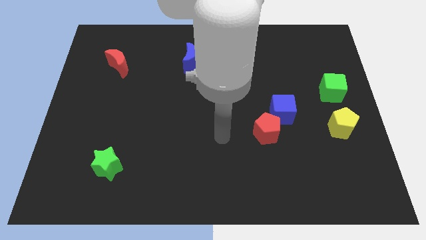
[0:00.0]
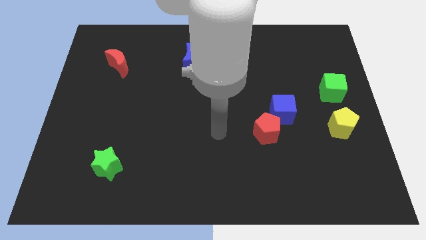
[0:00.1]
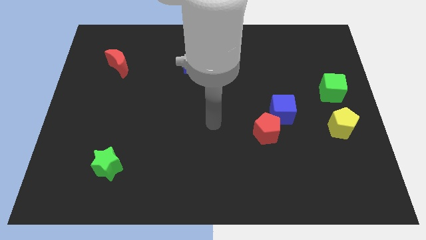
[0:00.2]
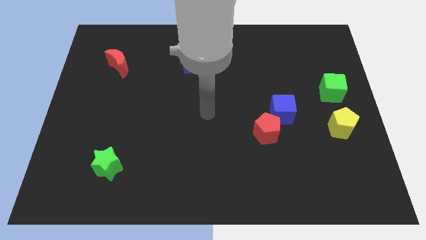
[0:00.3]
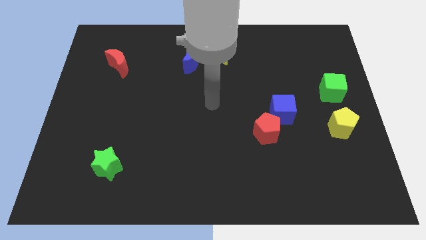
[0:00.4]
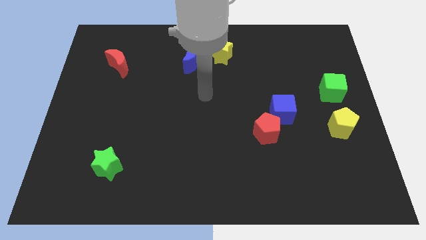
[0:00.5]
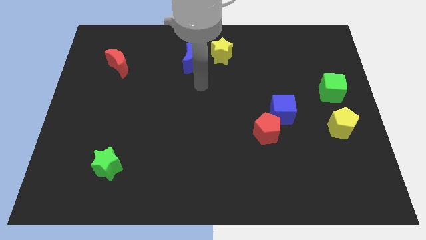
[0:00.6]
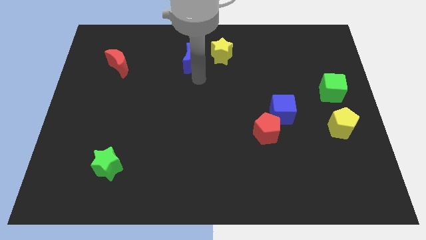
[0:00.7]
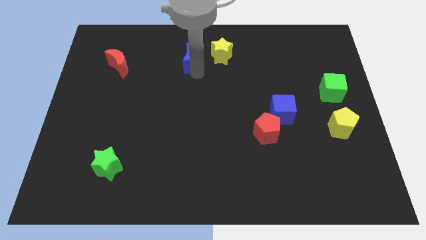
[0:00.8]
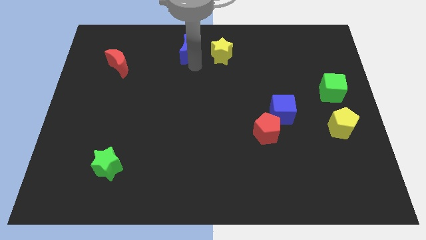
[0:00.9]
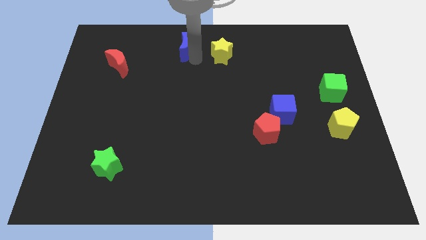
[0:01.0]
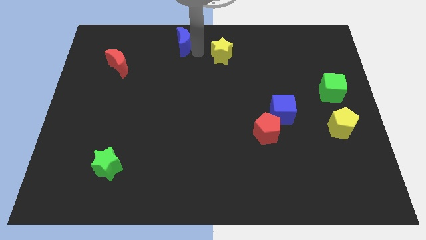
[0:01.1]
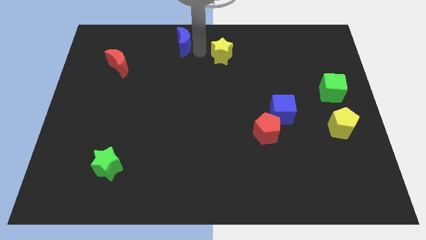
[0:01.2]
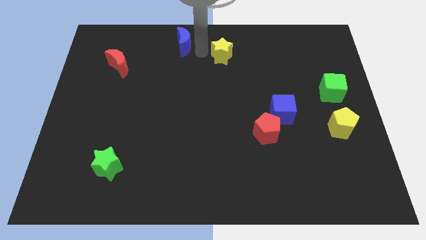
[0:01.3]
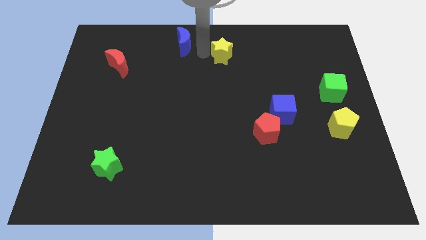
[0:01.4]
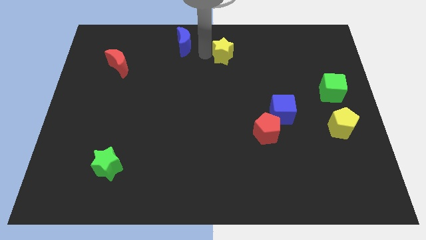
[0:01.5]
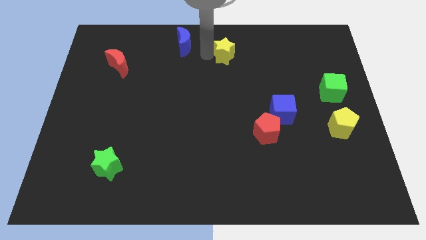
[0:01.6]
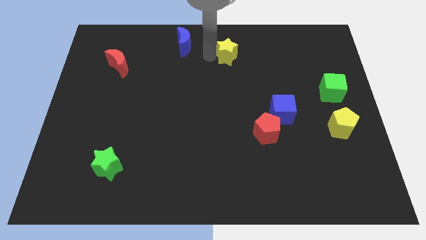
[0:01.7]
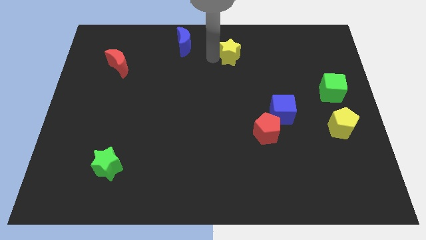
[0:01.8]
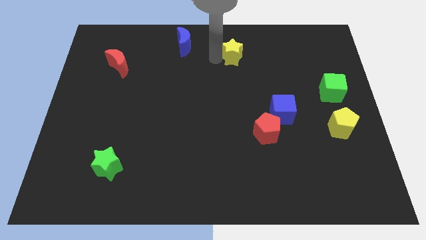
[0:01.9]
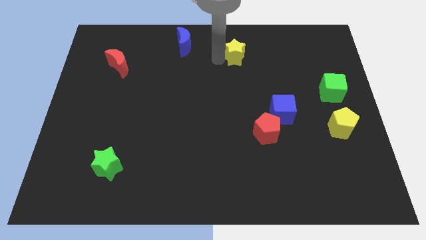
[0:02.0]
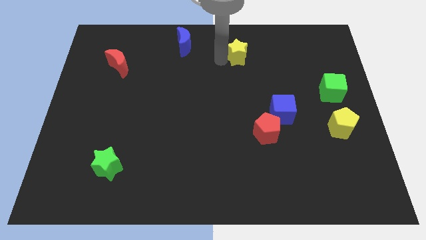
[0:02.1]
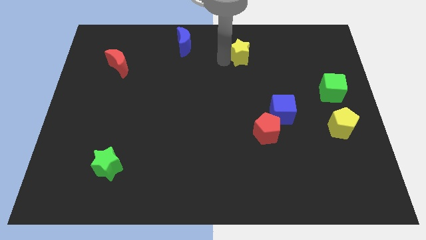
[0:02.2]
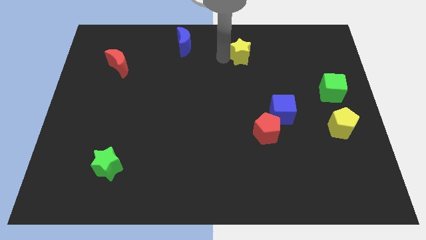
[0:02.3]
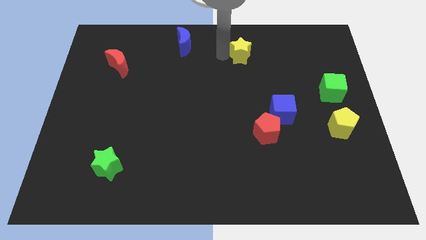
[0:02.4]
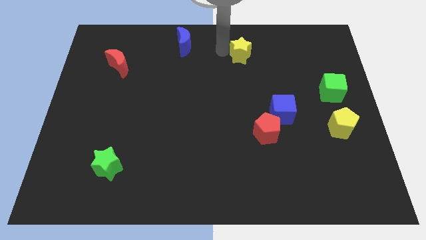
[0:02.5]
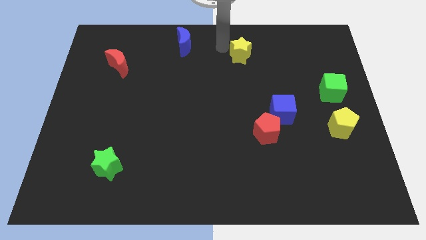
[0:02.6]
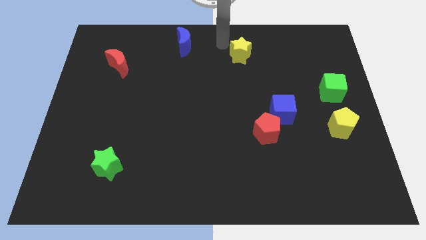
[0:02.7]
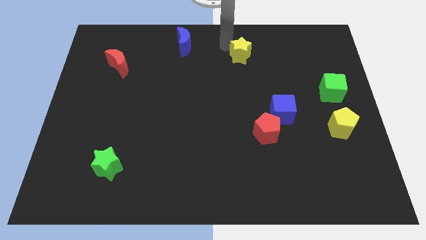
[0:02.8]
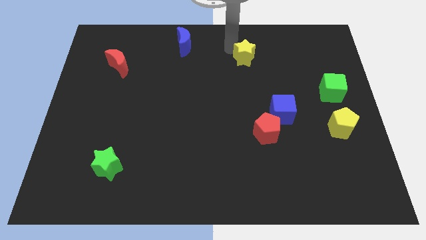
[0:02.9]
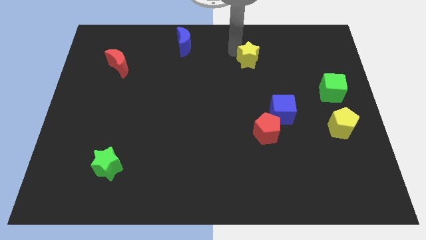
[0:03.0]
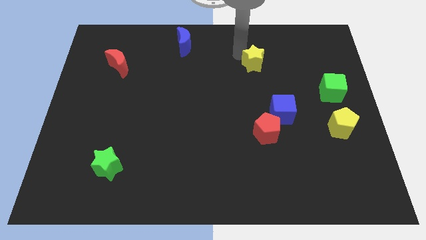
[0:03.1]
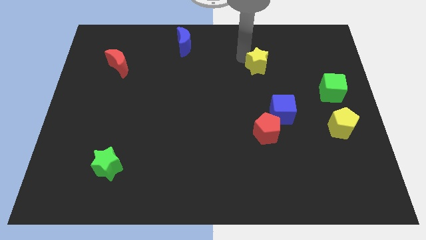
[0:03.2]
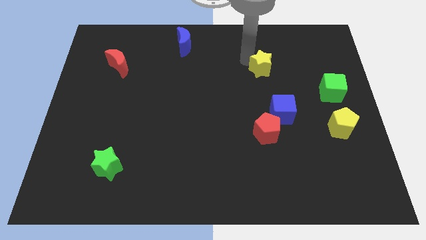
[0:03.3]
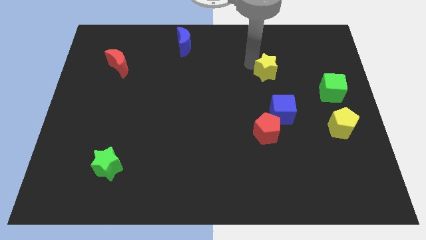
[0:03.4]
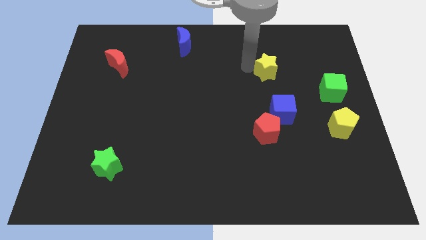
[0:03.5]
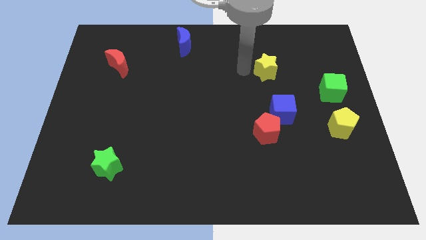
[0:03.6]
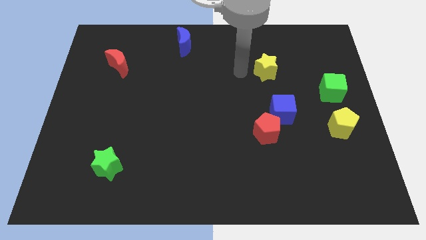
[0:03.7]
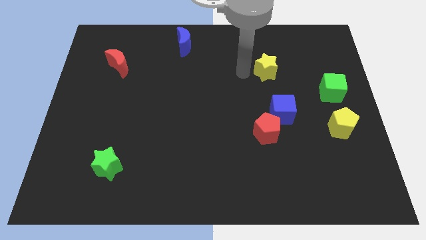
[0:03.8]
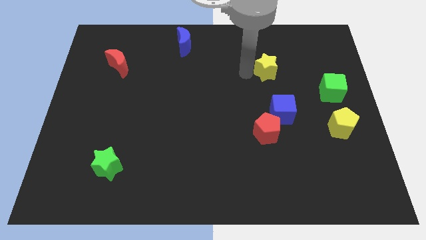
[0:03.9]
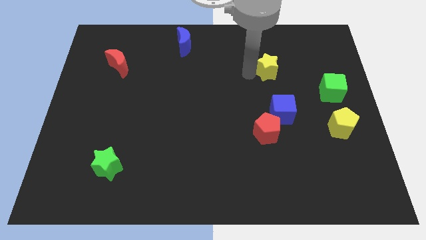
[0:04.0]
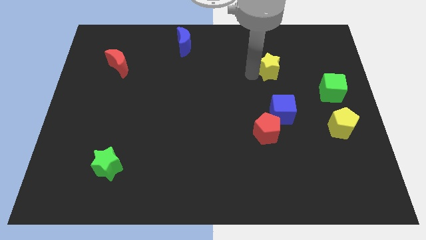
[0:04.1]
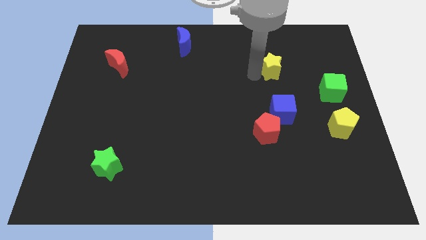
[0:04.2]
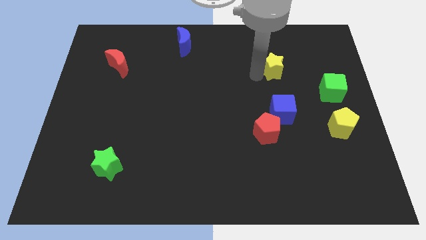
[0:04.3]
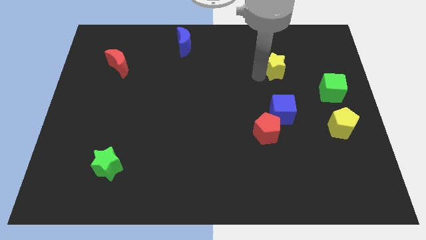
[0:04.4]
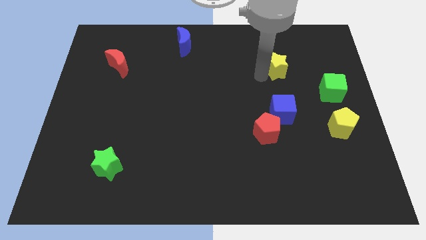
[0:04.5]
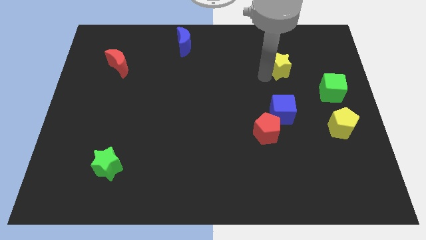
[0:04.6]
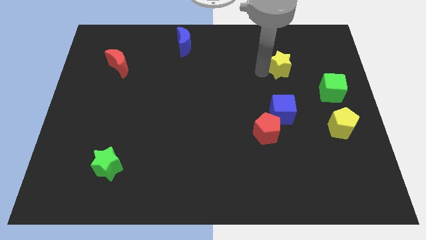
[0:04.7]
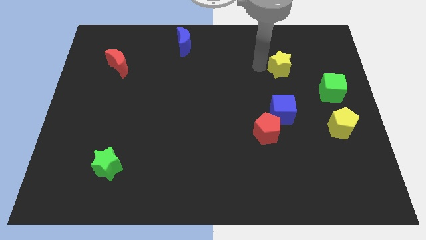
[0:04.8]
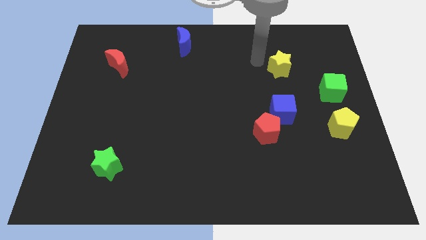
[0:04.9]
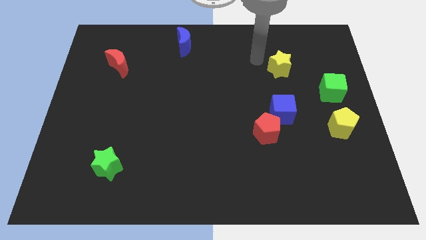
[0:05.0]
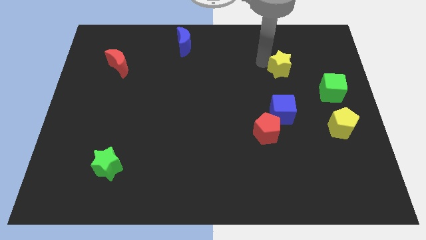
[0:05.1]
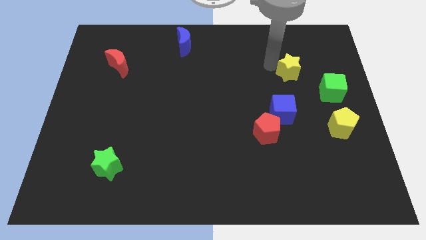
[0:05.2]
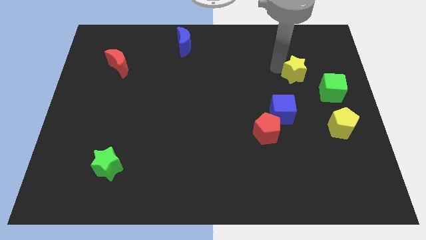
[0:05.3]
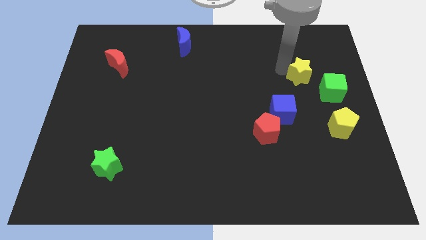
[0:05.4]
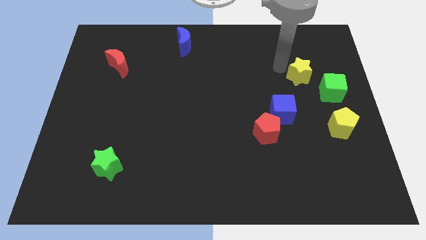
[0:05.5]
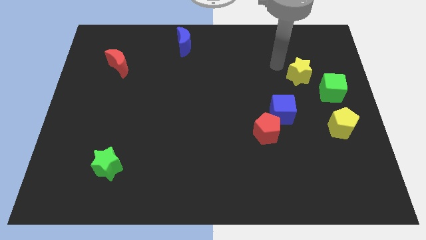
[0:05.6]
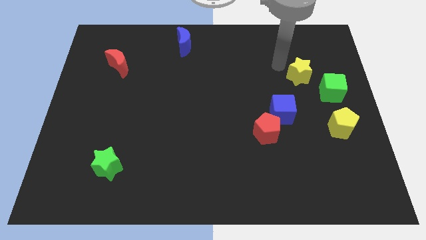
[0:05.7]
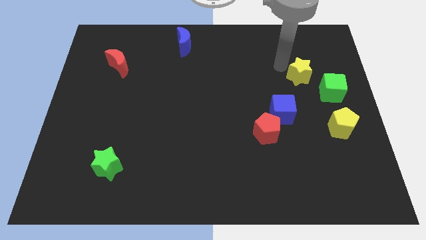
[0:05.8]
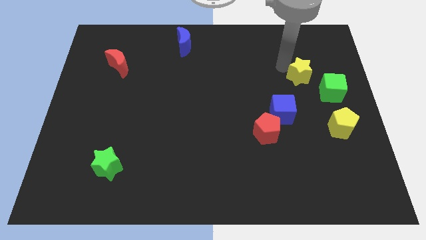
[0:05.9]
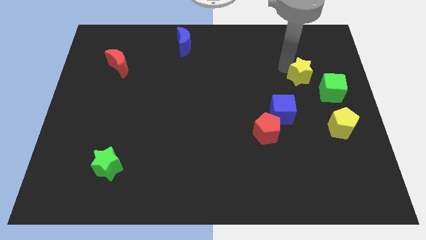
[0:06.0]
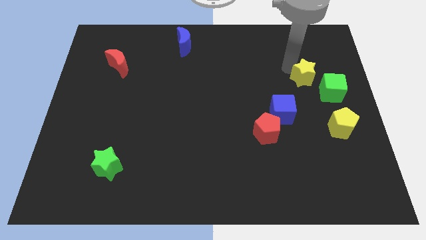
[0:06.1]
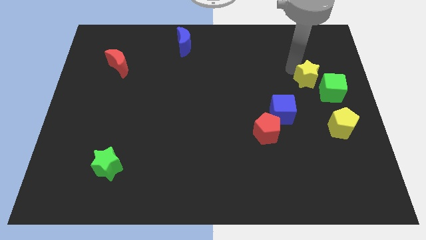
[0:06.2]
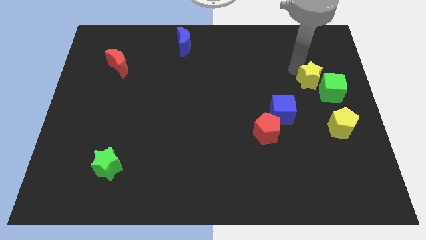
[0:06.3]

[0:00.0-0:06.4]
move the yellow star to the green cube

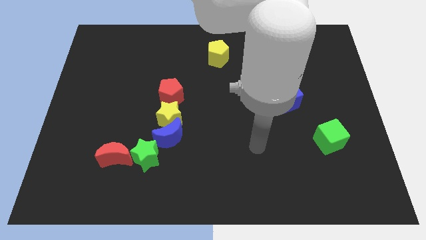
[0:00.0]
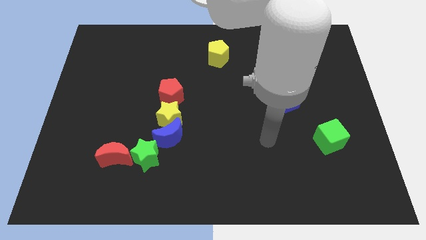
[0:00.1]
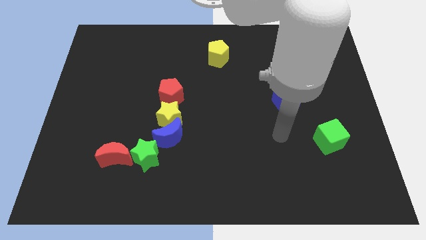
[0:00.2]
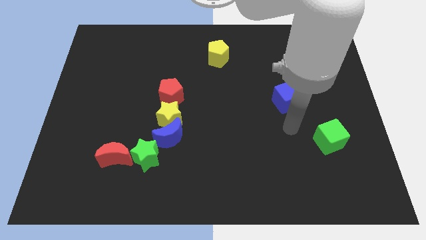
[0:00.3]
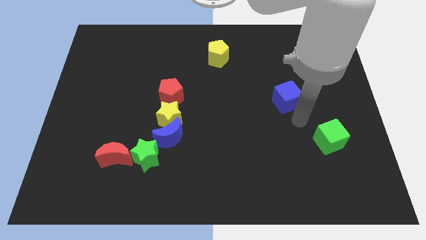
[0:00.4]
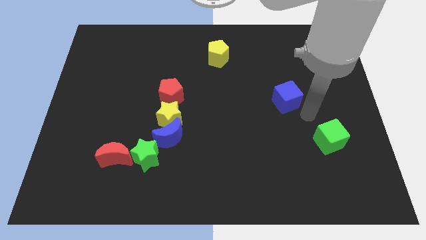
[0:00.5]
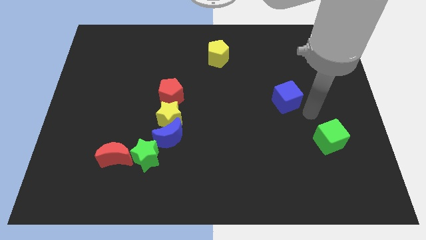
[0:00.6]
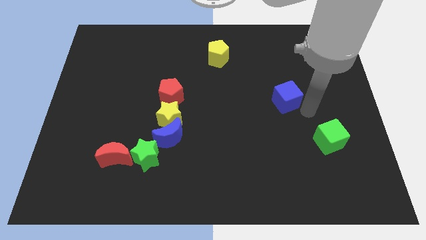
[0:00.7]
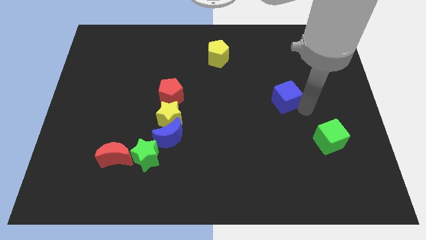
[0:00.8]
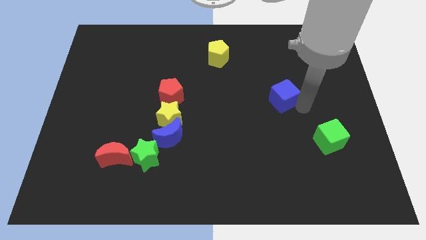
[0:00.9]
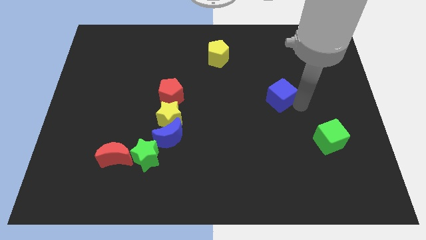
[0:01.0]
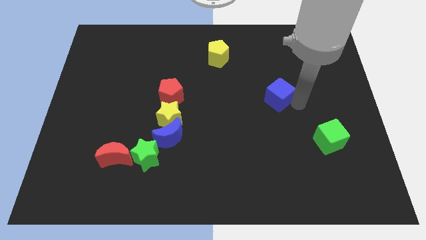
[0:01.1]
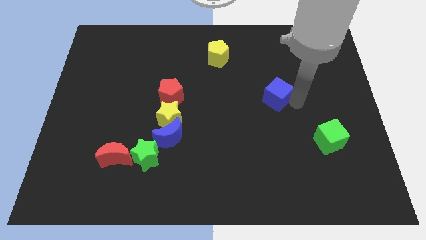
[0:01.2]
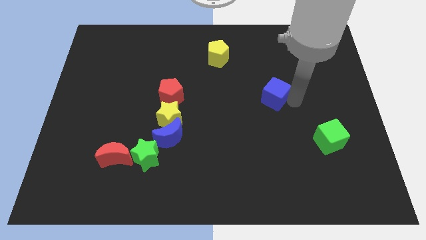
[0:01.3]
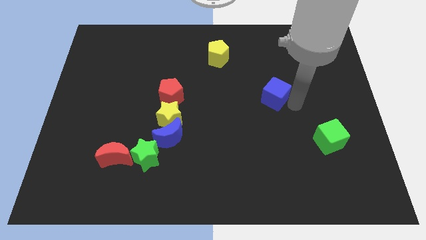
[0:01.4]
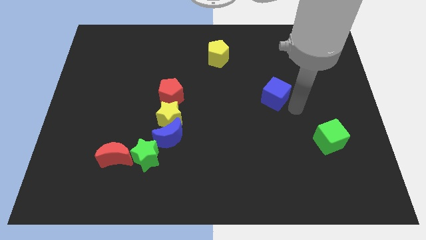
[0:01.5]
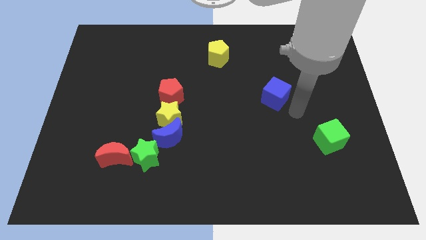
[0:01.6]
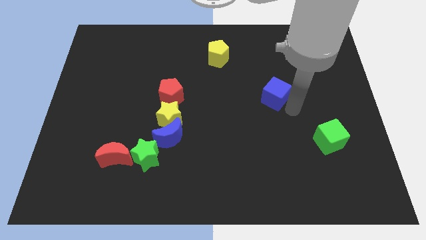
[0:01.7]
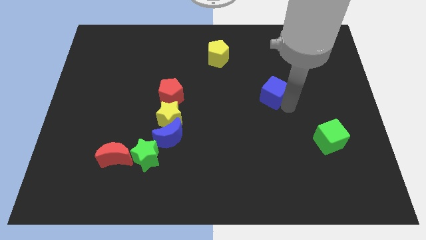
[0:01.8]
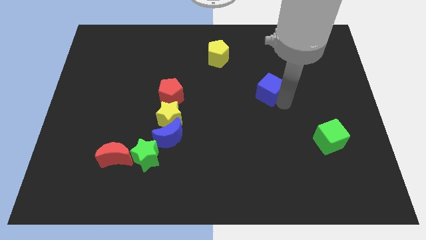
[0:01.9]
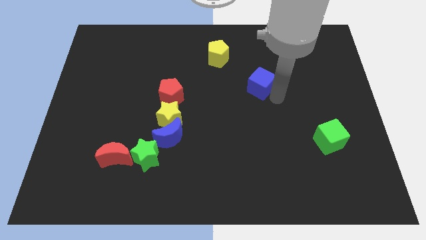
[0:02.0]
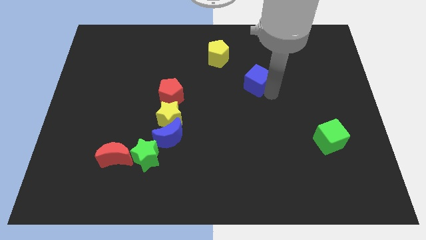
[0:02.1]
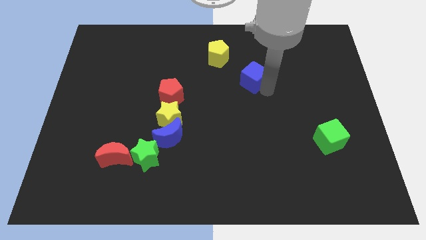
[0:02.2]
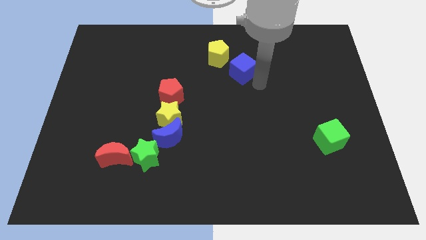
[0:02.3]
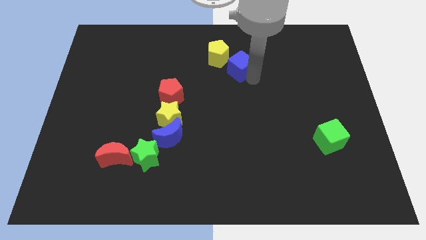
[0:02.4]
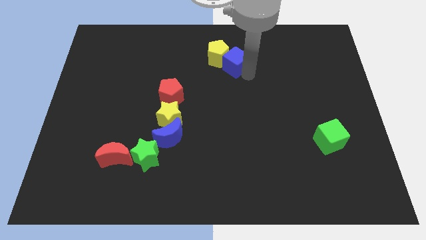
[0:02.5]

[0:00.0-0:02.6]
put the blue cube towards the yellow pentagon
